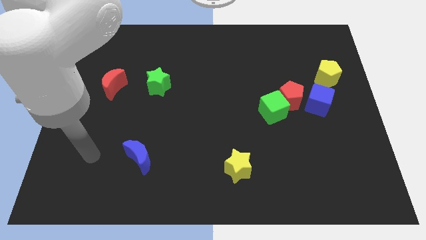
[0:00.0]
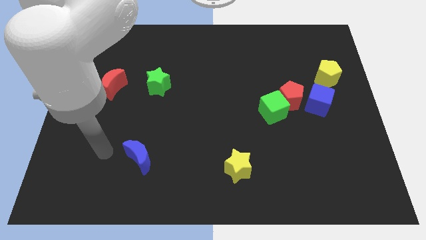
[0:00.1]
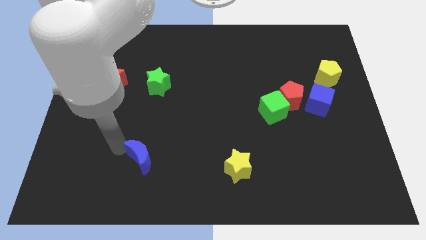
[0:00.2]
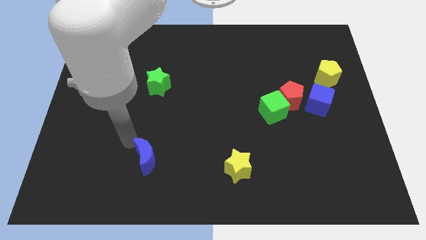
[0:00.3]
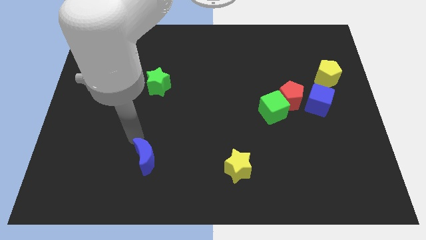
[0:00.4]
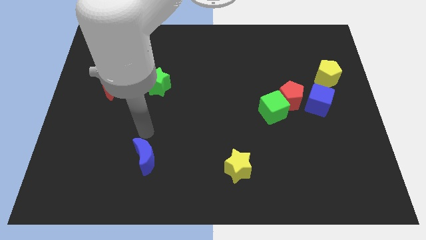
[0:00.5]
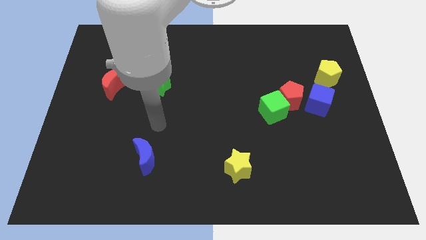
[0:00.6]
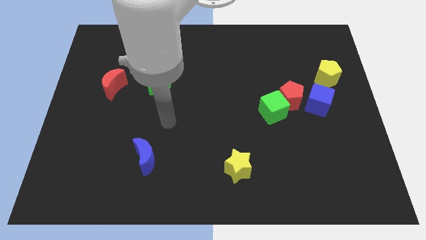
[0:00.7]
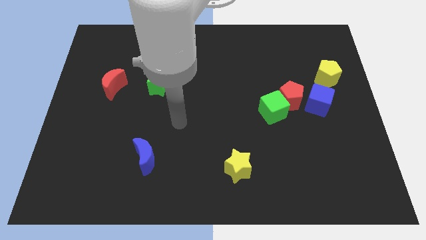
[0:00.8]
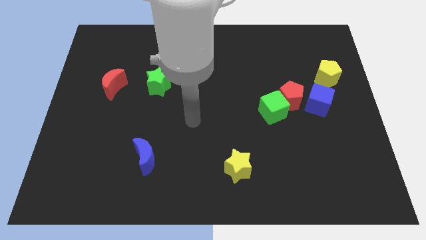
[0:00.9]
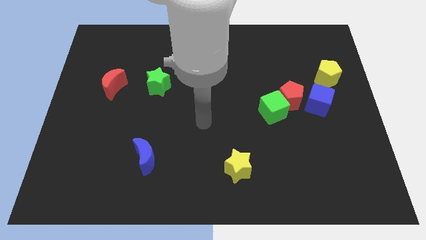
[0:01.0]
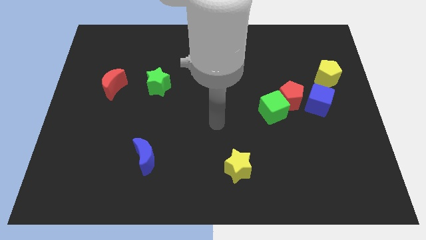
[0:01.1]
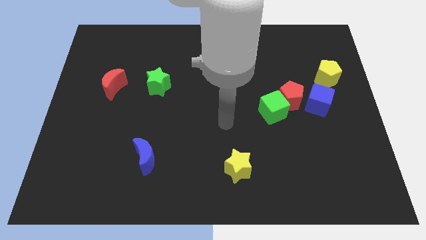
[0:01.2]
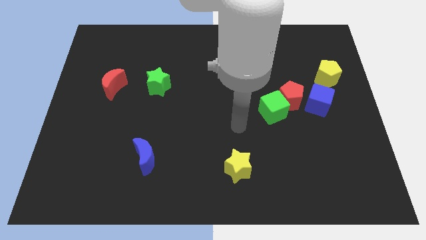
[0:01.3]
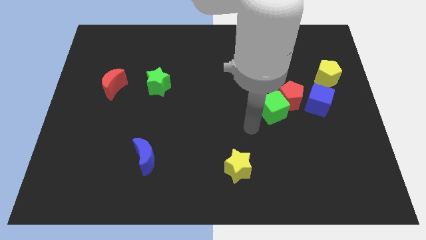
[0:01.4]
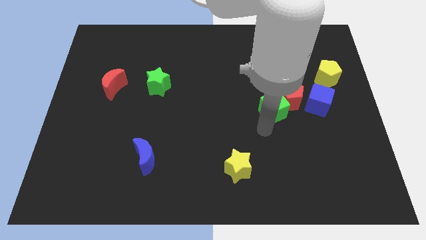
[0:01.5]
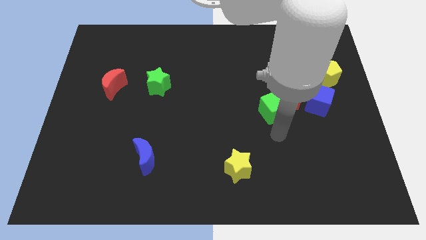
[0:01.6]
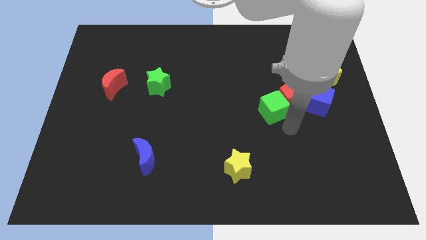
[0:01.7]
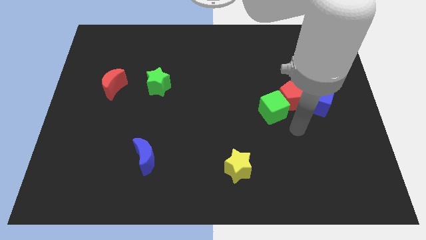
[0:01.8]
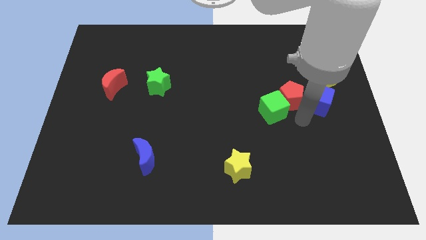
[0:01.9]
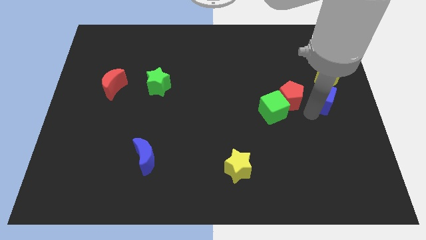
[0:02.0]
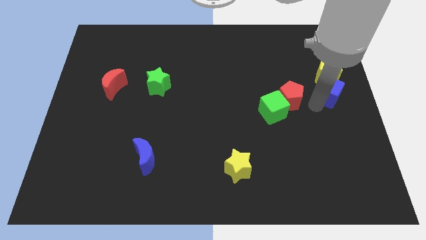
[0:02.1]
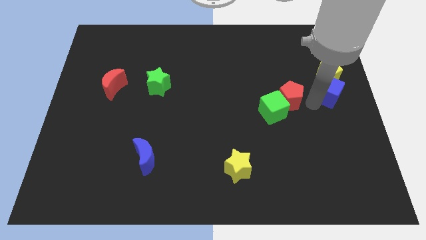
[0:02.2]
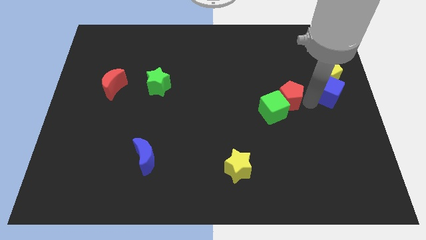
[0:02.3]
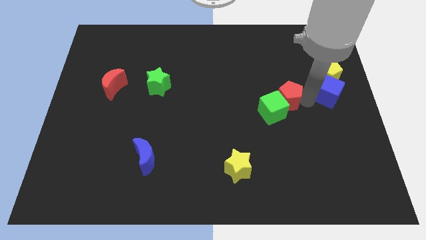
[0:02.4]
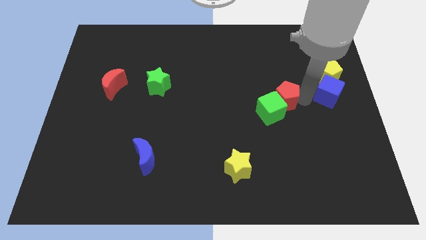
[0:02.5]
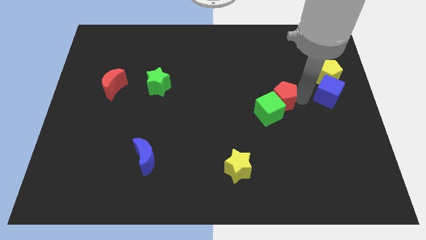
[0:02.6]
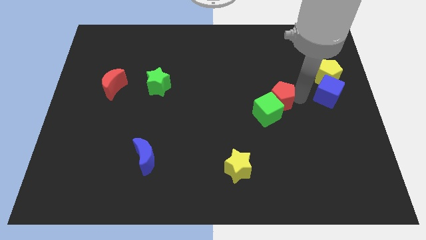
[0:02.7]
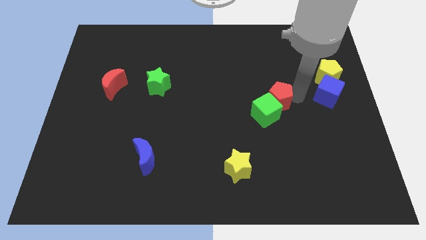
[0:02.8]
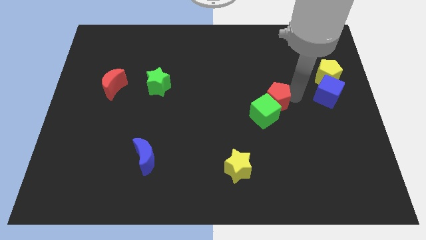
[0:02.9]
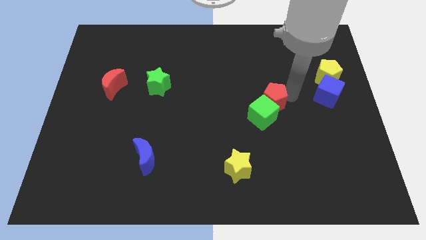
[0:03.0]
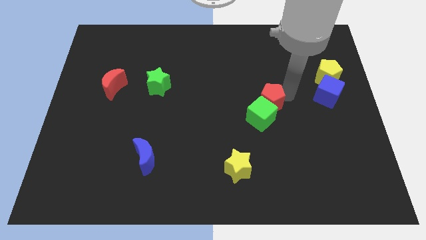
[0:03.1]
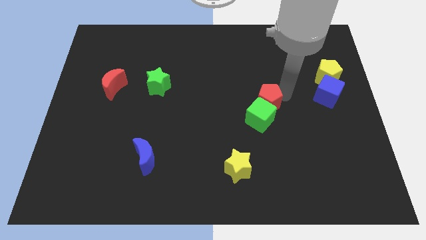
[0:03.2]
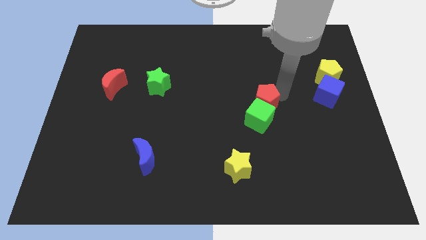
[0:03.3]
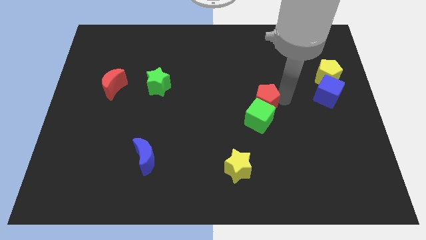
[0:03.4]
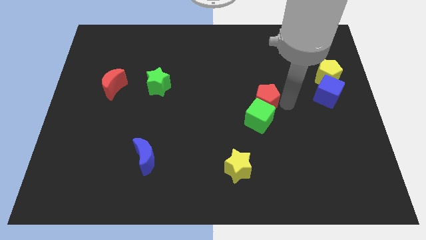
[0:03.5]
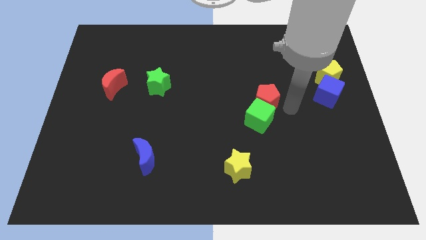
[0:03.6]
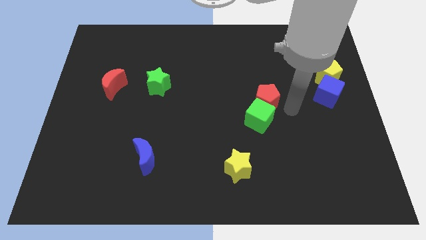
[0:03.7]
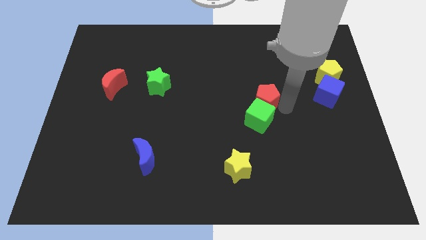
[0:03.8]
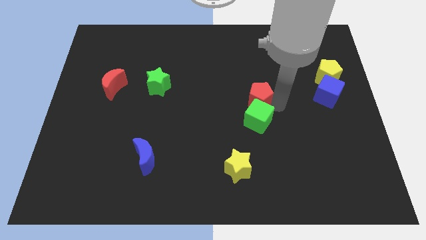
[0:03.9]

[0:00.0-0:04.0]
move the red pentagon a bit to the left

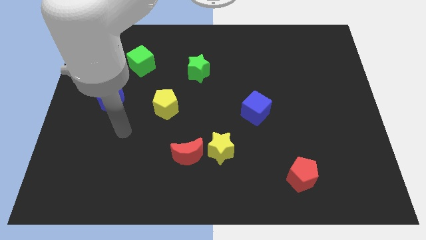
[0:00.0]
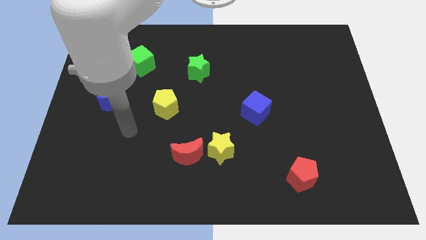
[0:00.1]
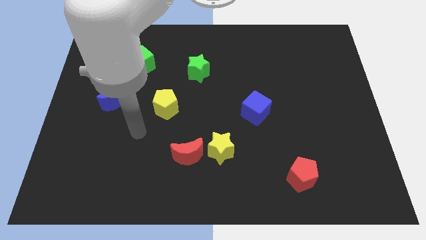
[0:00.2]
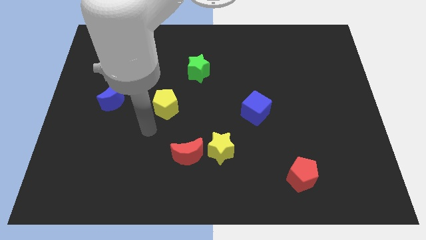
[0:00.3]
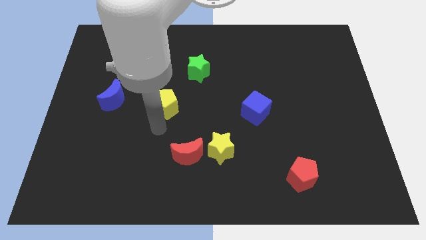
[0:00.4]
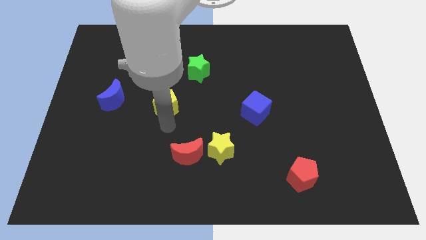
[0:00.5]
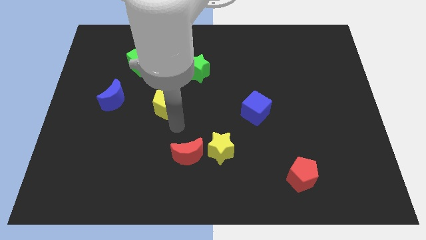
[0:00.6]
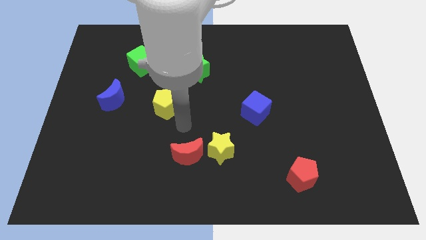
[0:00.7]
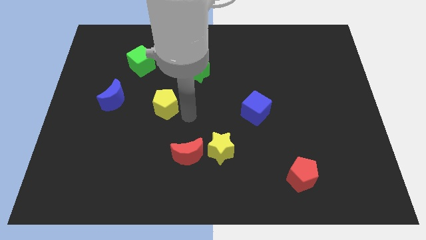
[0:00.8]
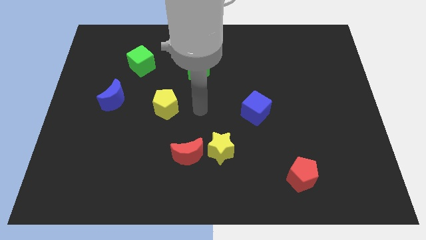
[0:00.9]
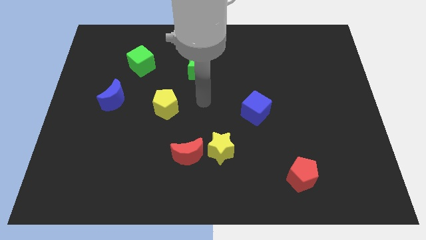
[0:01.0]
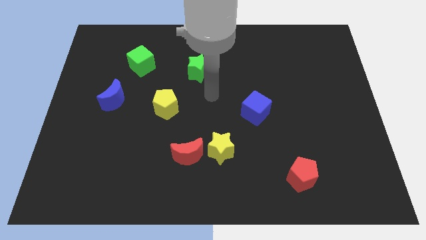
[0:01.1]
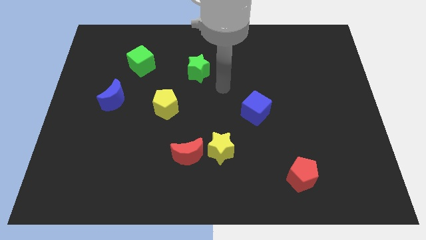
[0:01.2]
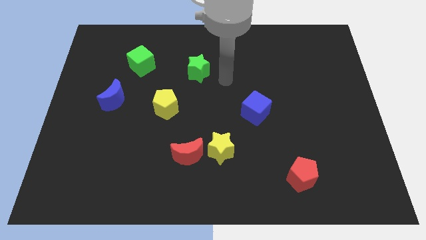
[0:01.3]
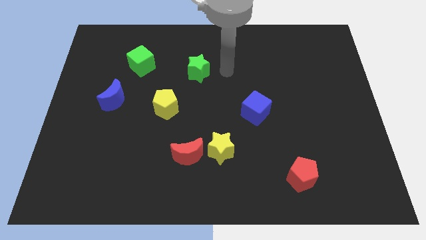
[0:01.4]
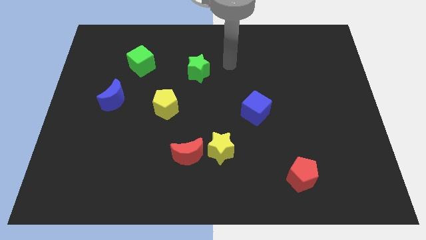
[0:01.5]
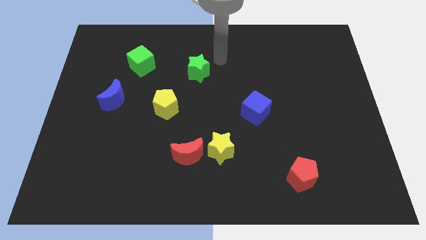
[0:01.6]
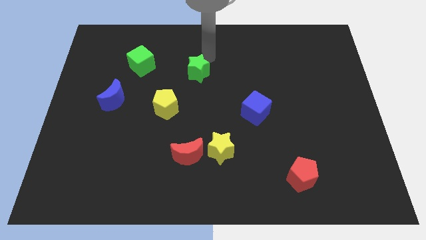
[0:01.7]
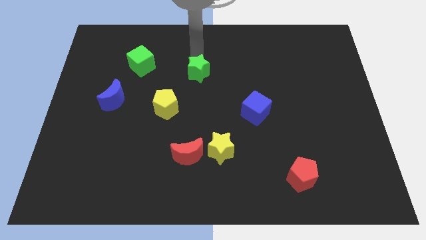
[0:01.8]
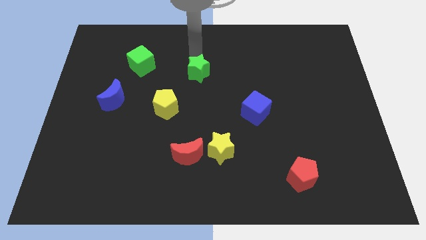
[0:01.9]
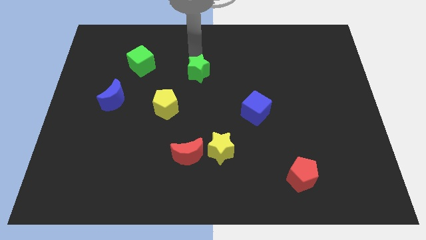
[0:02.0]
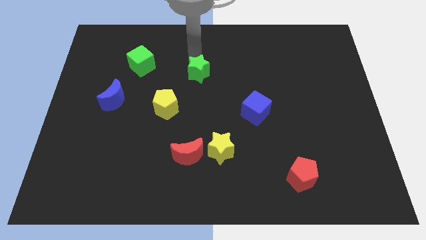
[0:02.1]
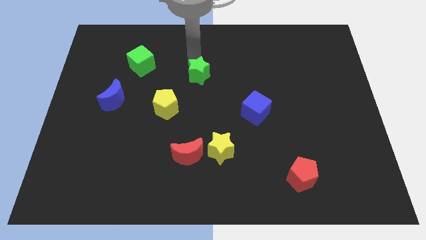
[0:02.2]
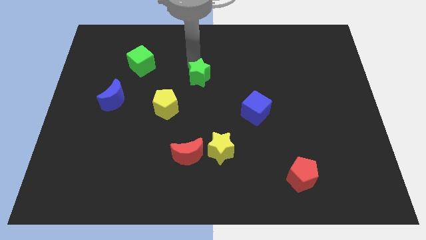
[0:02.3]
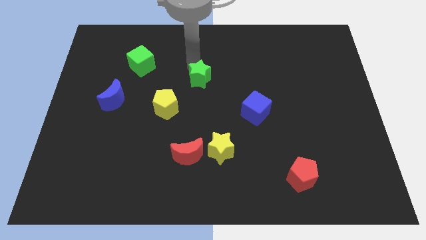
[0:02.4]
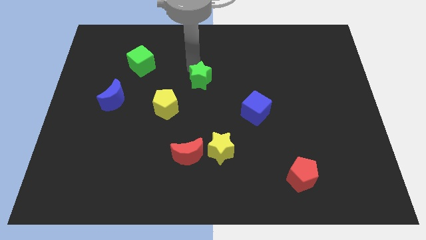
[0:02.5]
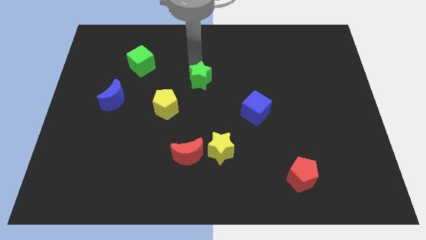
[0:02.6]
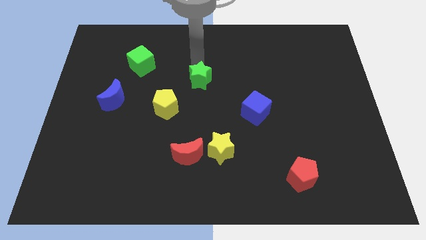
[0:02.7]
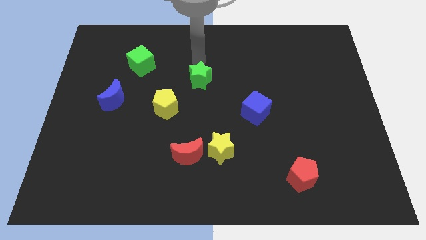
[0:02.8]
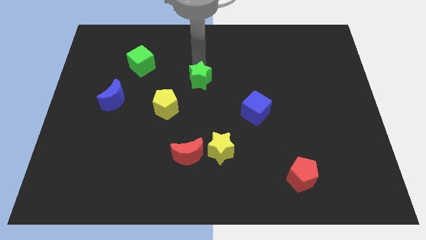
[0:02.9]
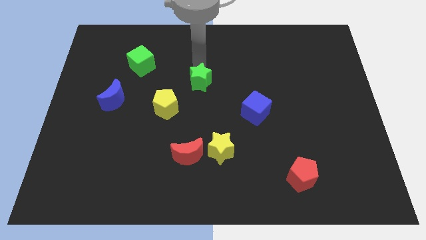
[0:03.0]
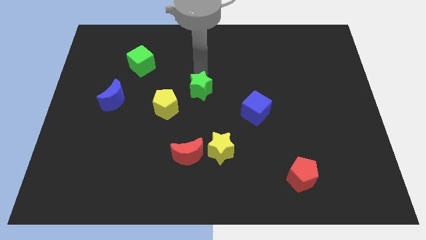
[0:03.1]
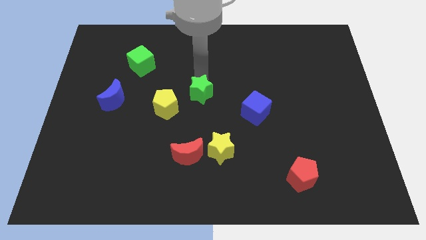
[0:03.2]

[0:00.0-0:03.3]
slightly push the green star downwards

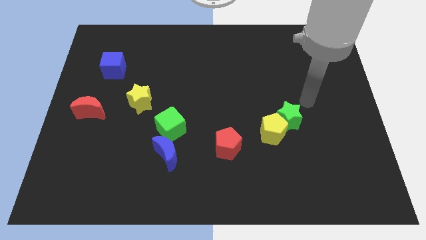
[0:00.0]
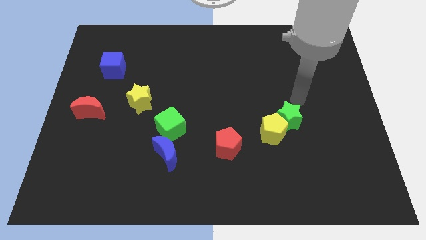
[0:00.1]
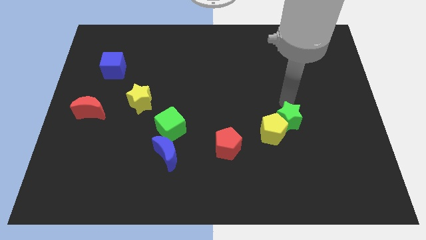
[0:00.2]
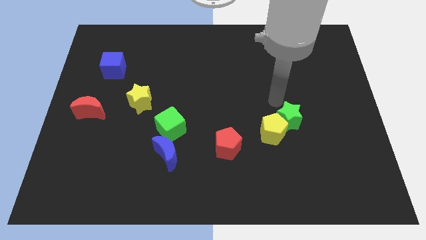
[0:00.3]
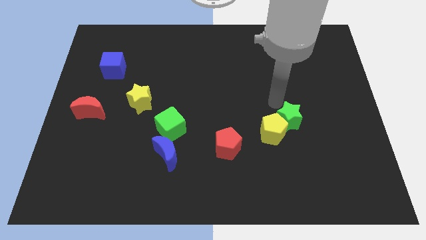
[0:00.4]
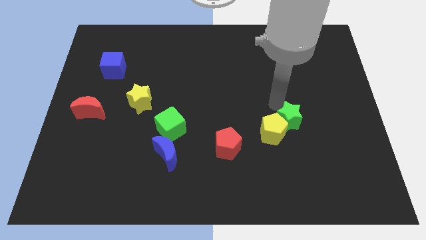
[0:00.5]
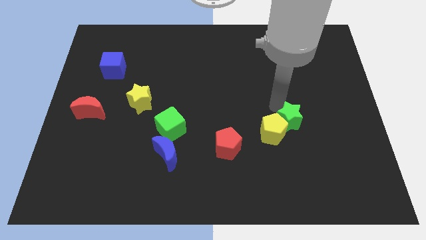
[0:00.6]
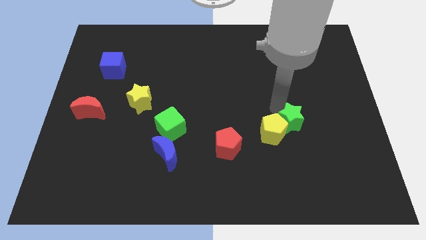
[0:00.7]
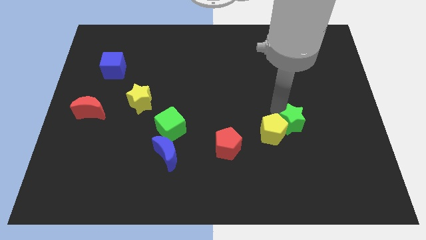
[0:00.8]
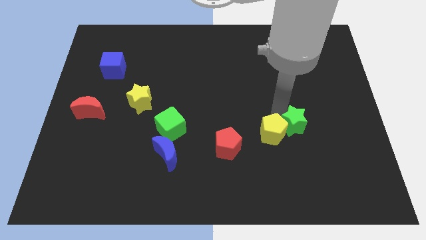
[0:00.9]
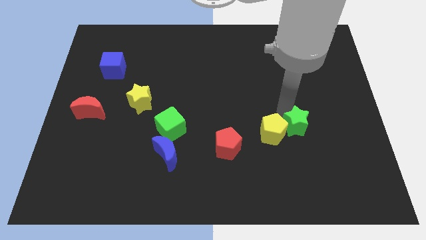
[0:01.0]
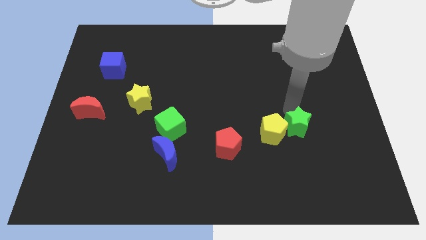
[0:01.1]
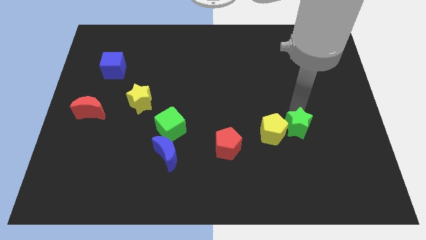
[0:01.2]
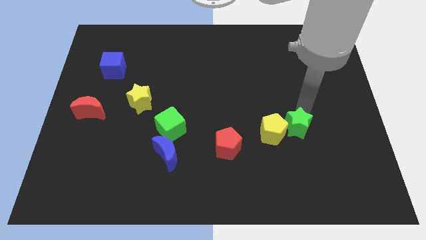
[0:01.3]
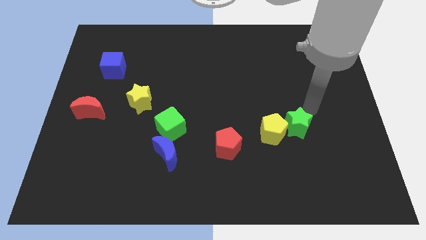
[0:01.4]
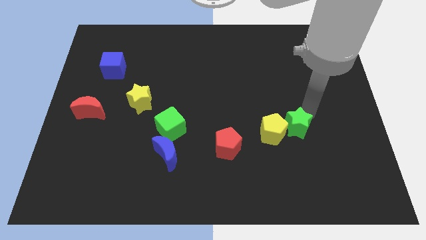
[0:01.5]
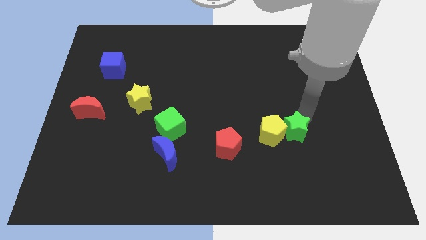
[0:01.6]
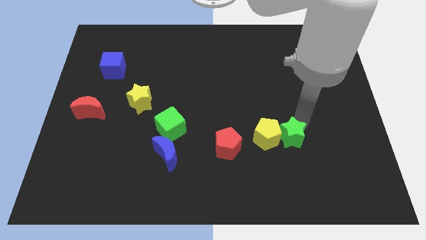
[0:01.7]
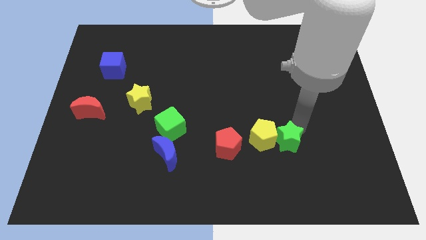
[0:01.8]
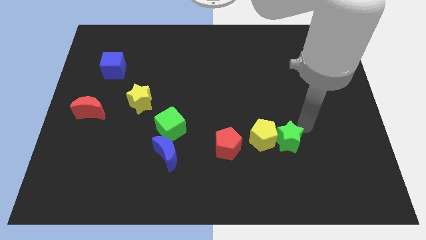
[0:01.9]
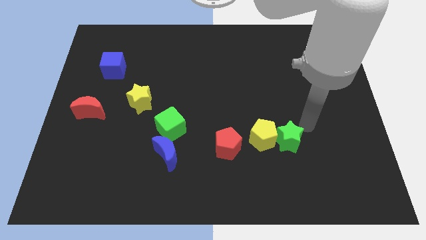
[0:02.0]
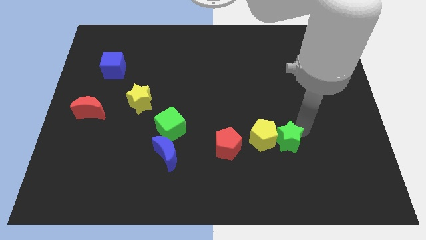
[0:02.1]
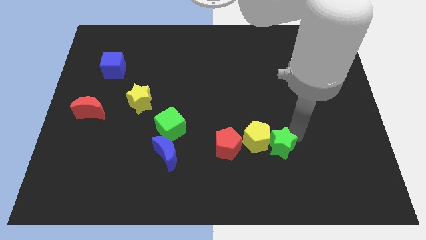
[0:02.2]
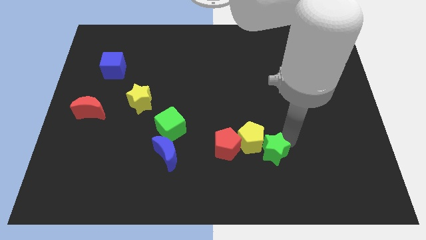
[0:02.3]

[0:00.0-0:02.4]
move the green star downwards and left a little bit
